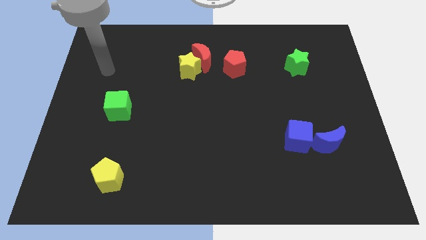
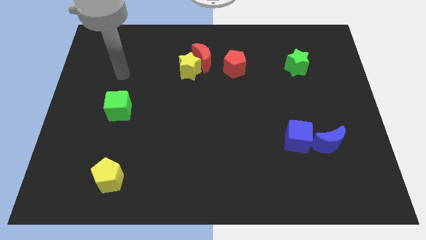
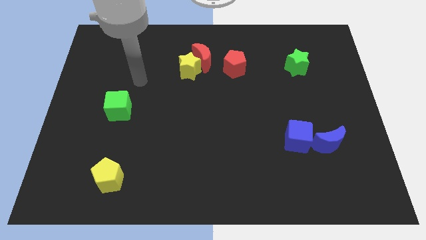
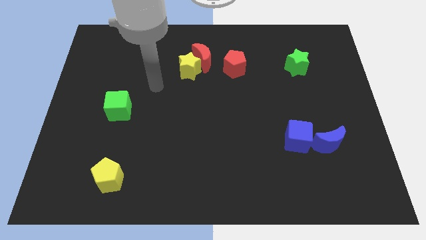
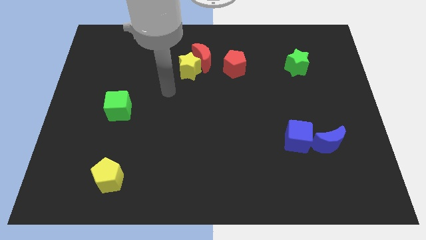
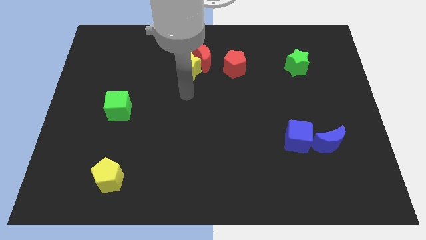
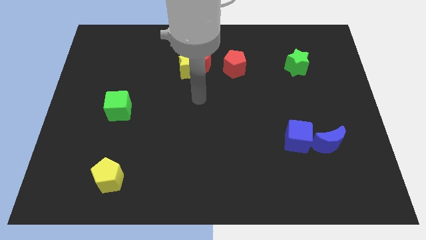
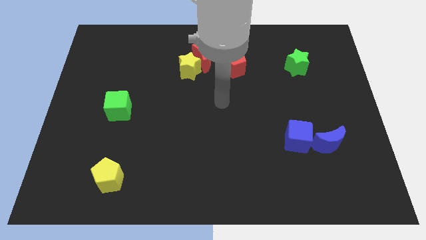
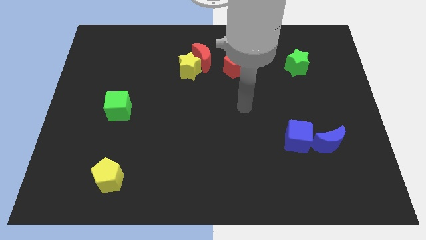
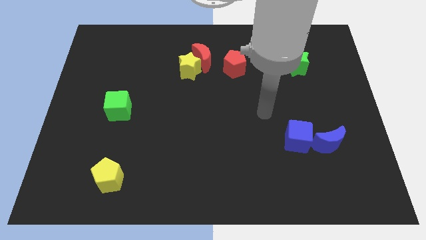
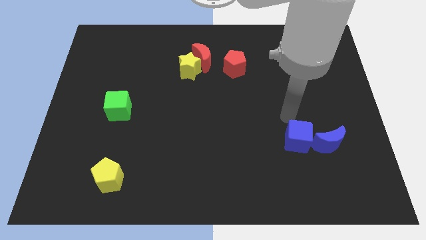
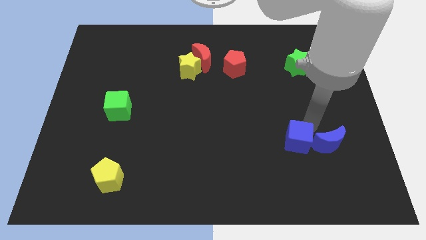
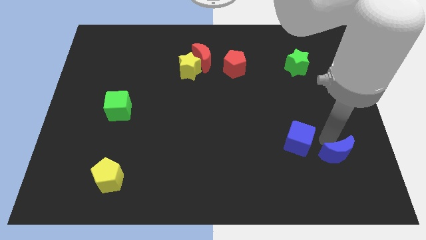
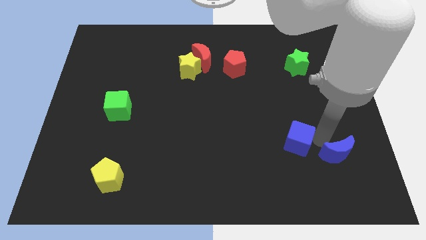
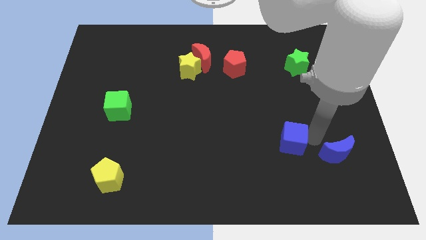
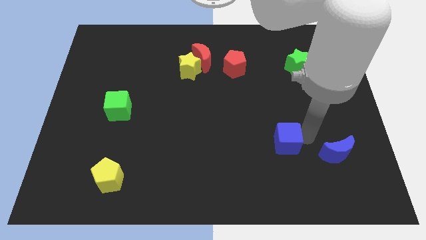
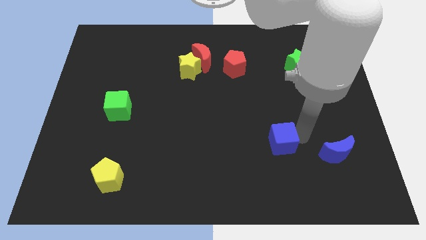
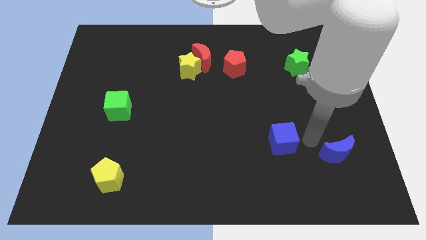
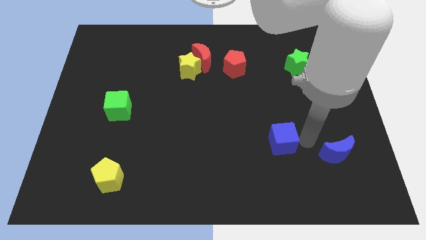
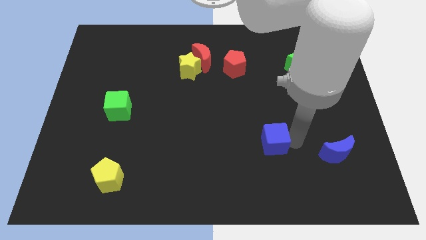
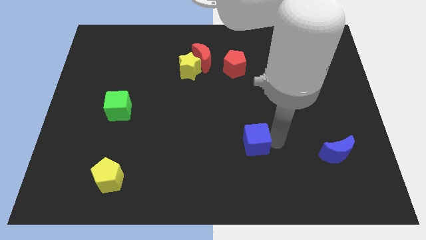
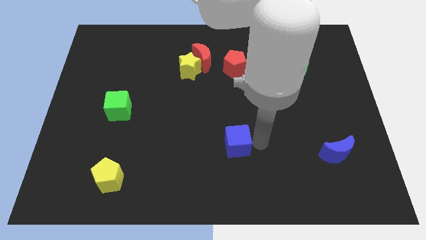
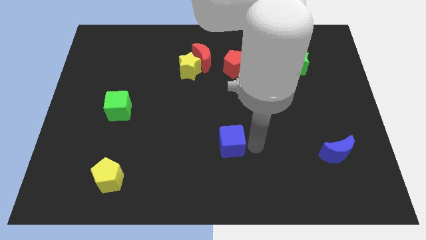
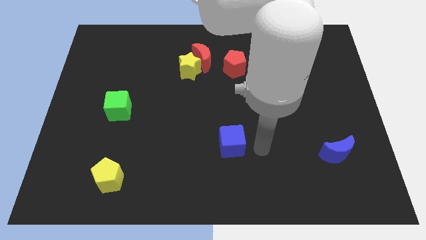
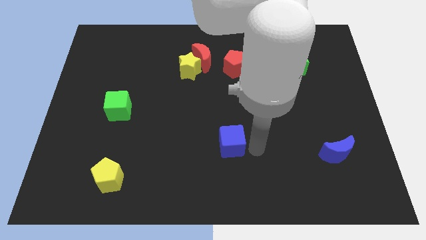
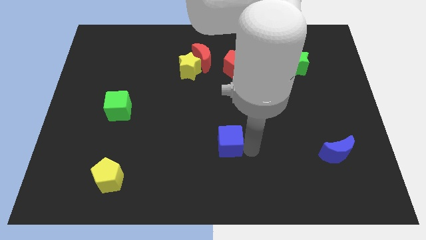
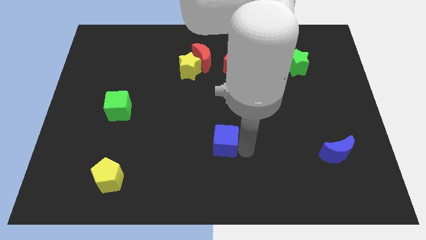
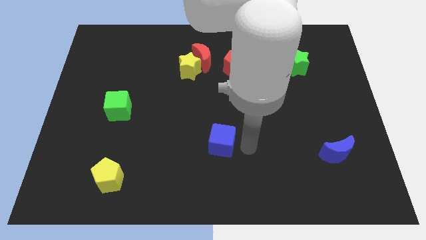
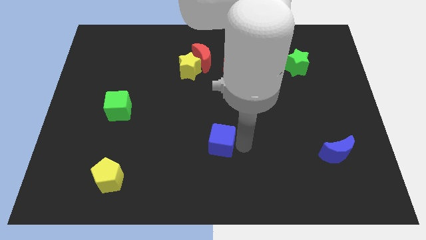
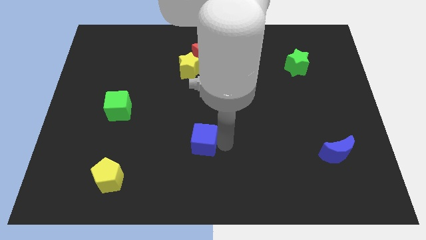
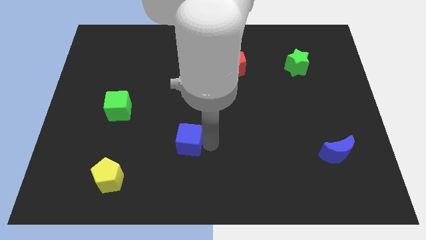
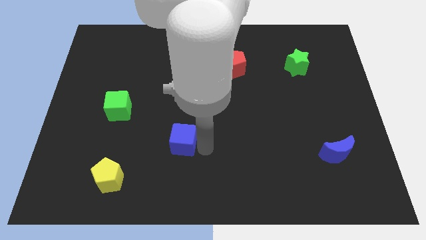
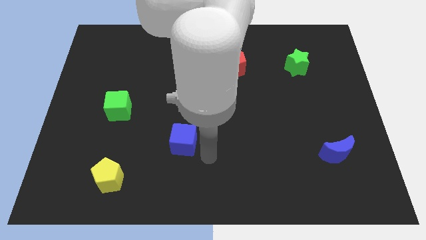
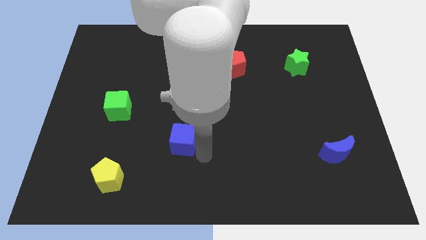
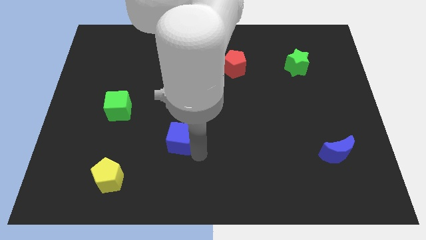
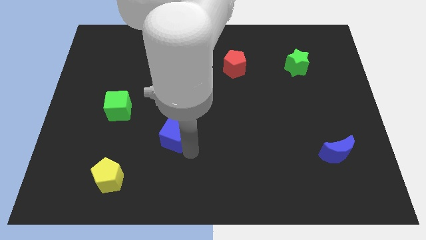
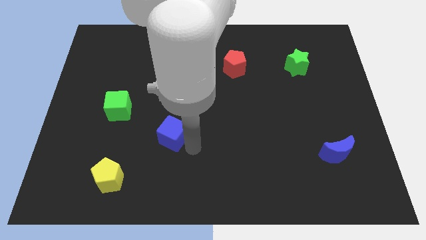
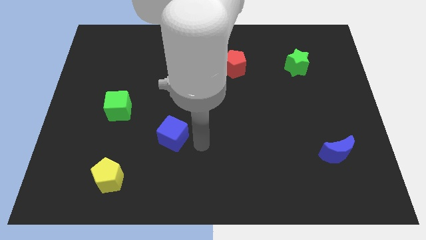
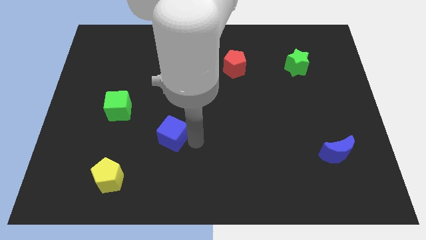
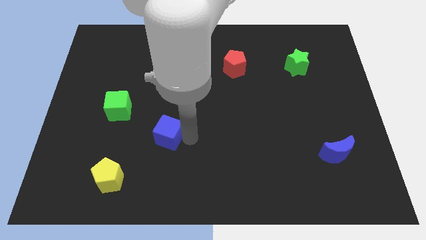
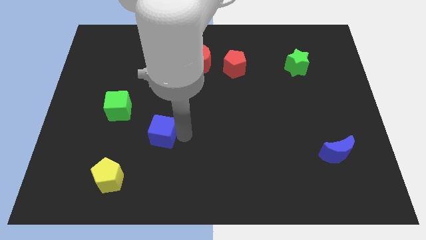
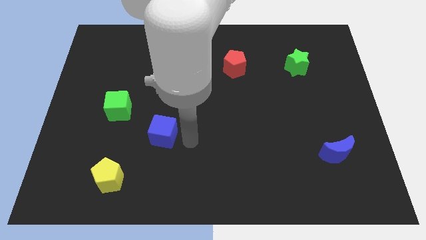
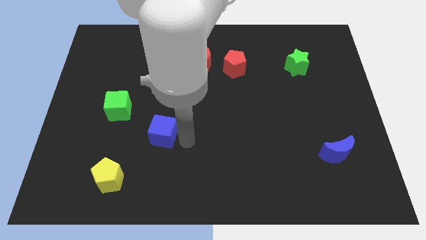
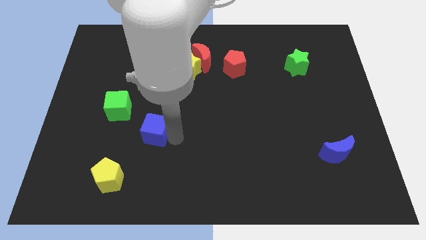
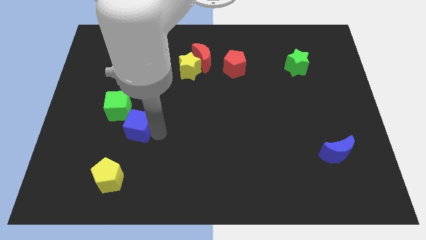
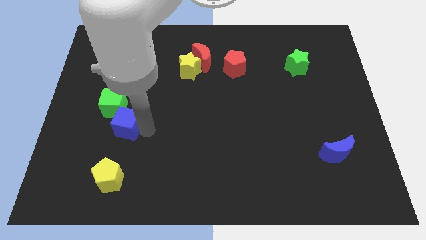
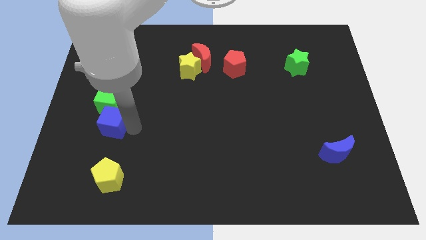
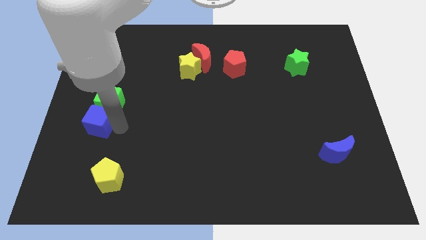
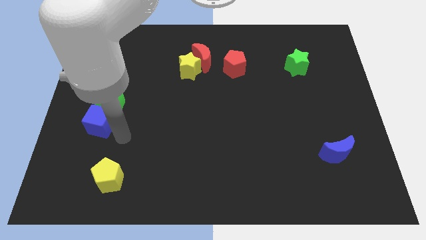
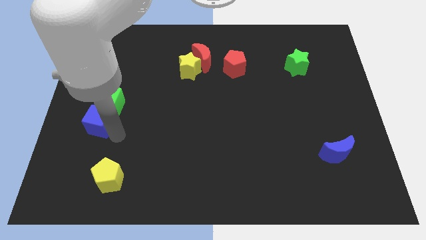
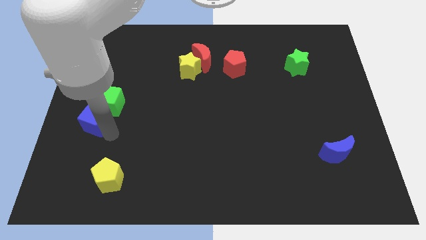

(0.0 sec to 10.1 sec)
move the blue cube to the left side

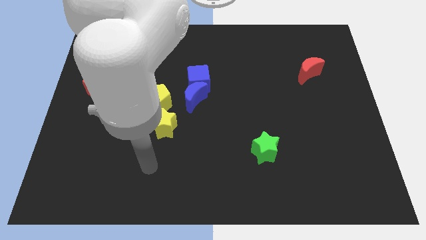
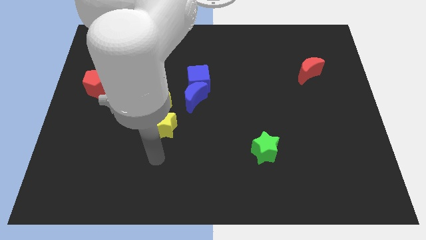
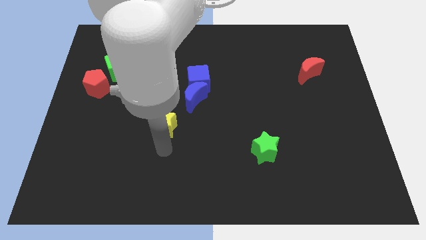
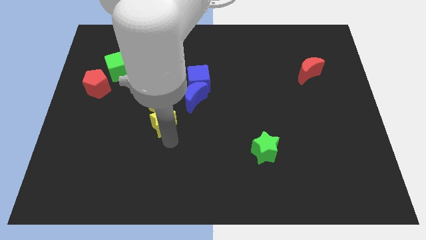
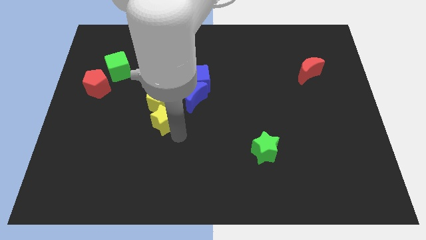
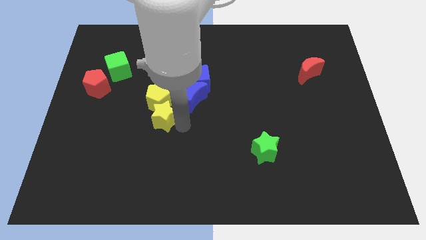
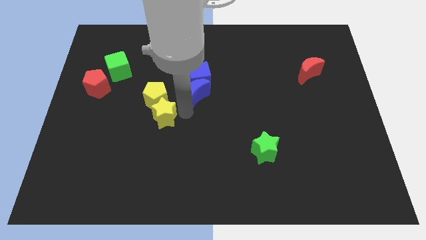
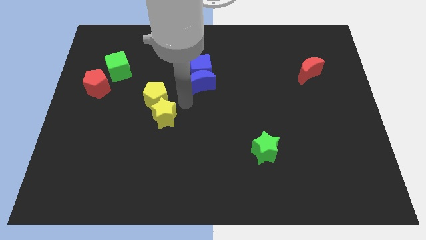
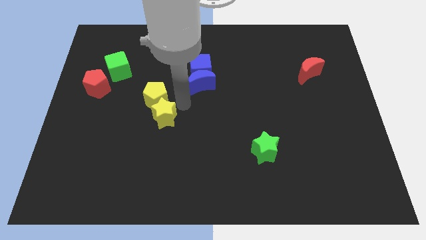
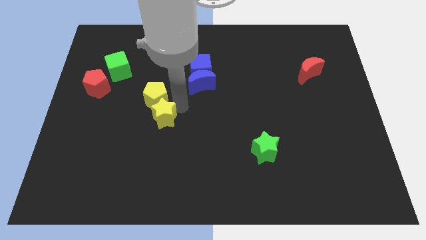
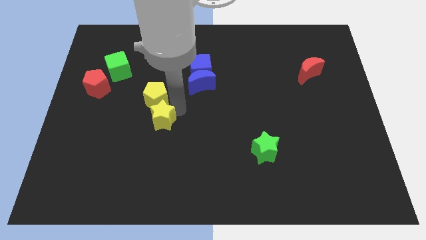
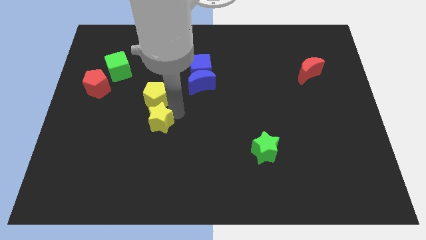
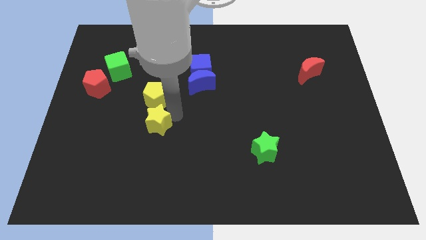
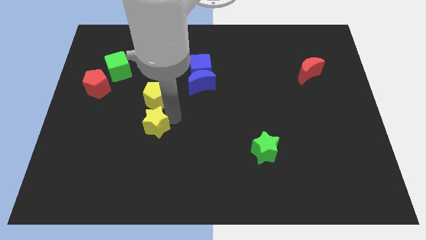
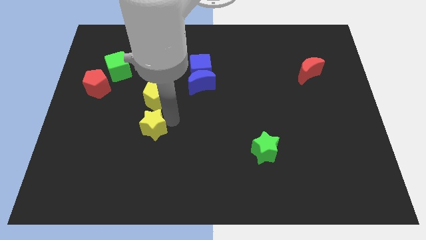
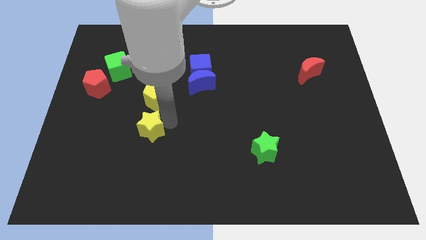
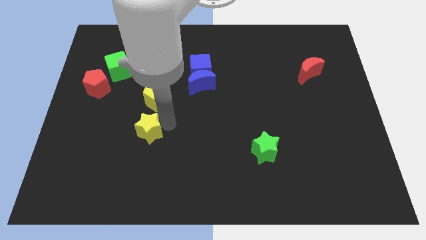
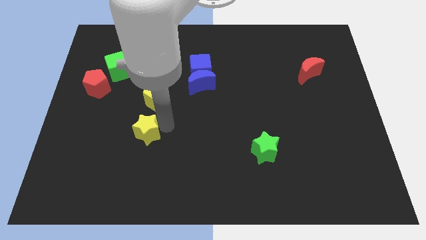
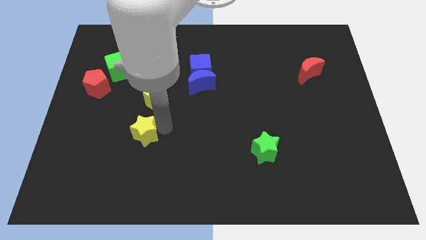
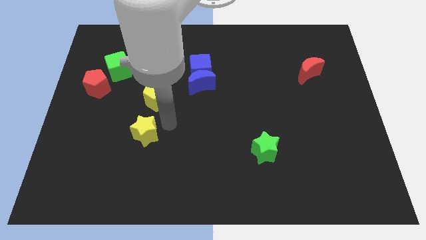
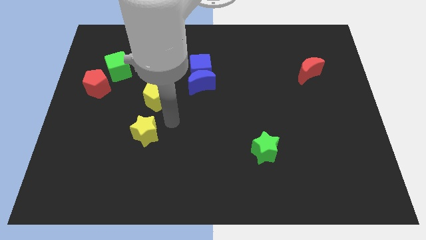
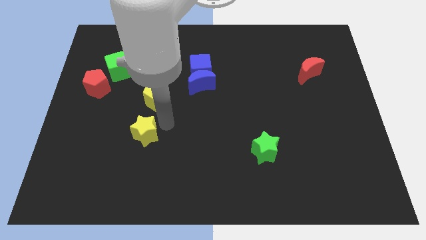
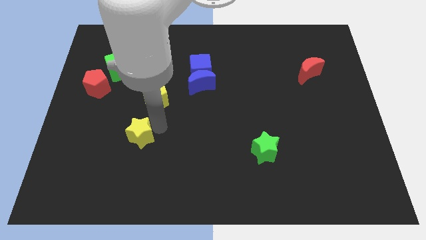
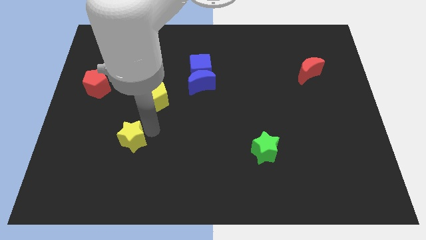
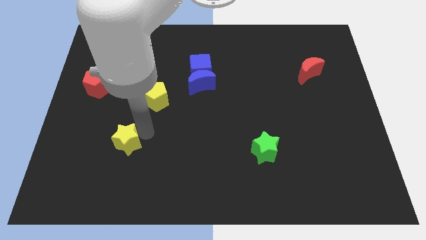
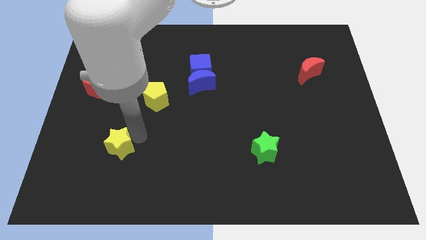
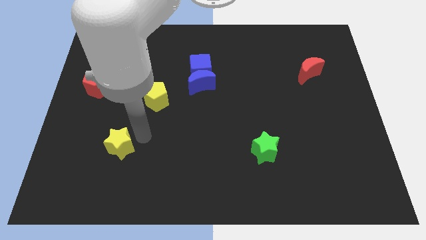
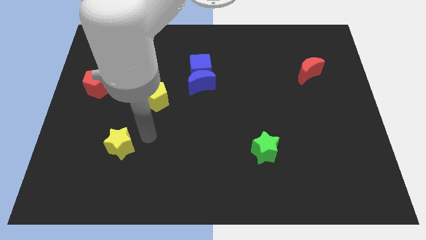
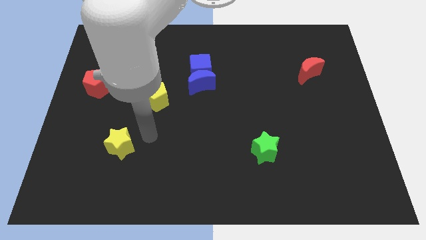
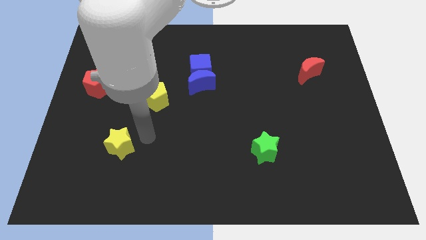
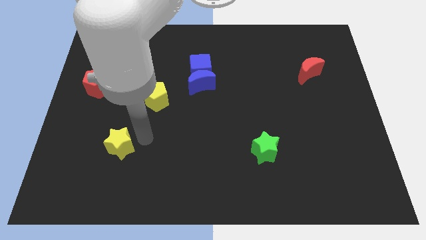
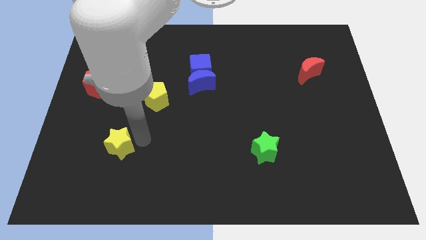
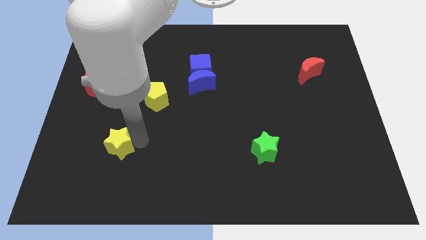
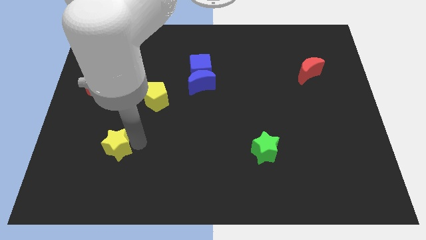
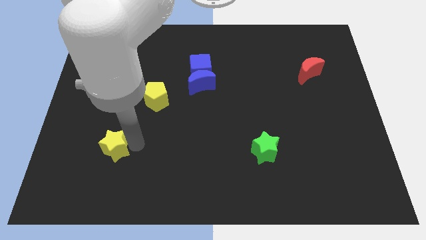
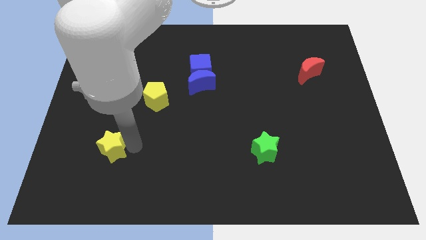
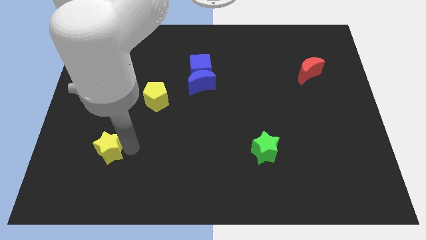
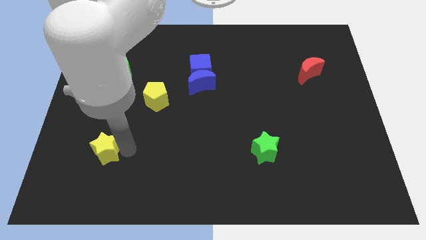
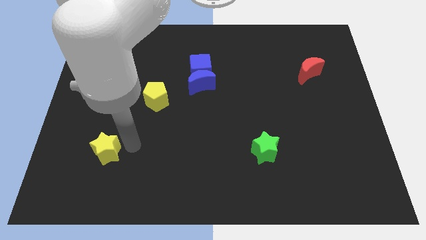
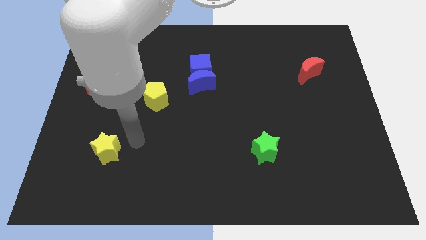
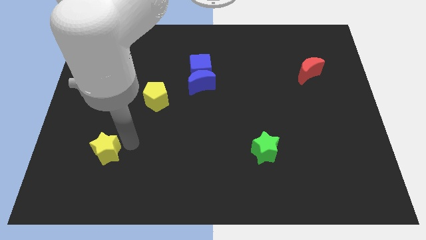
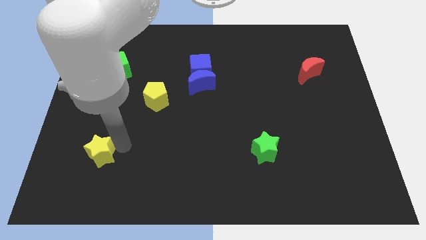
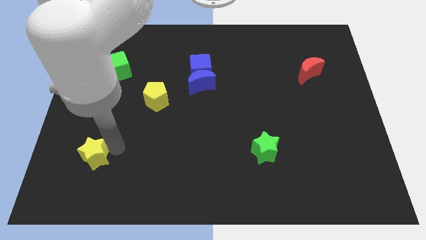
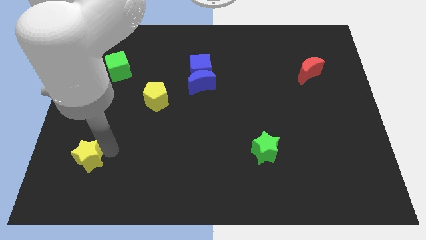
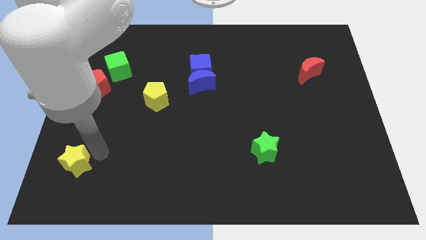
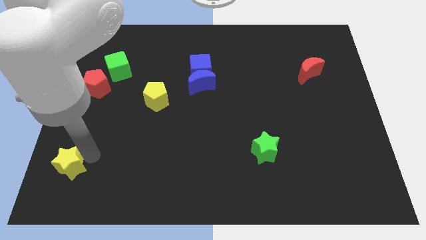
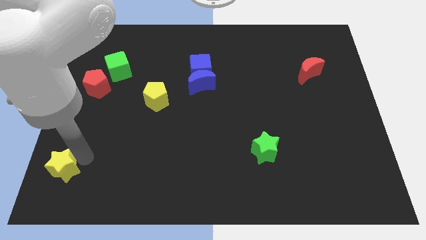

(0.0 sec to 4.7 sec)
push the yellow star to the bottom left
